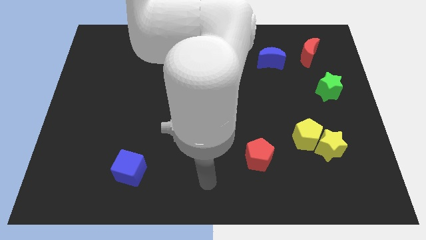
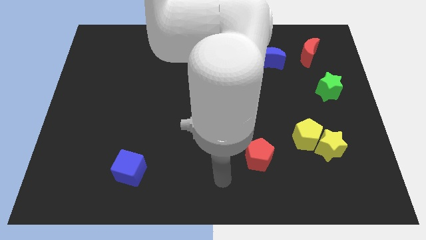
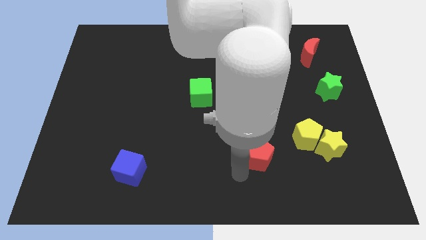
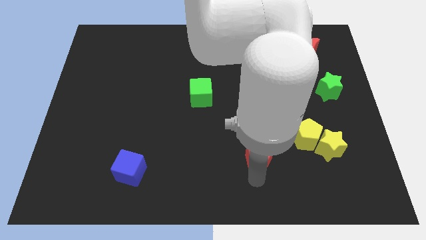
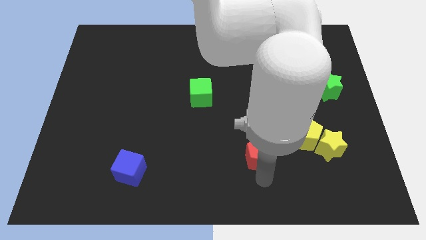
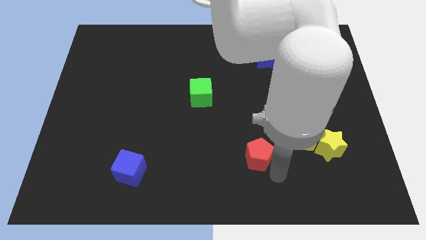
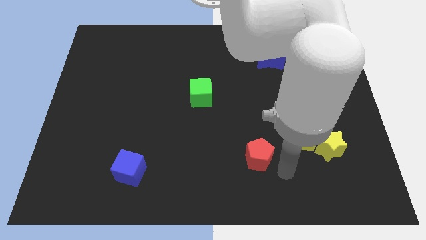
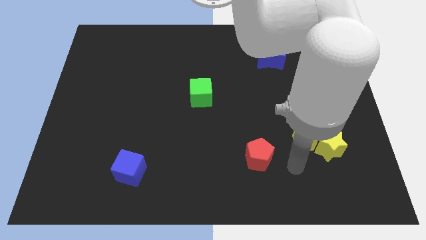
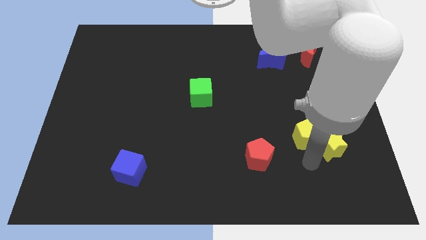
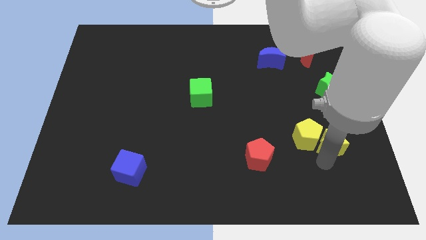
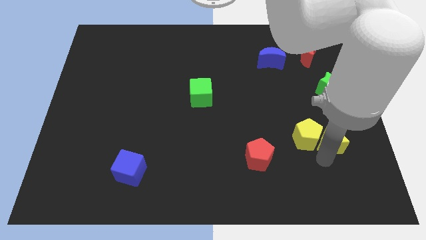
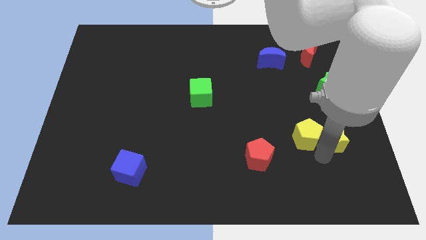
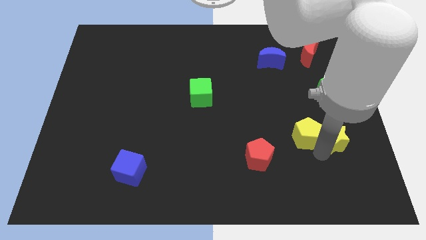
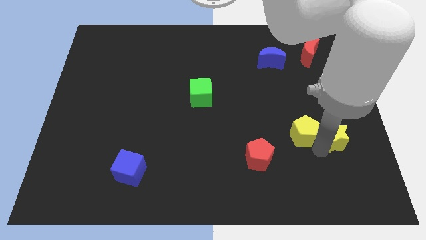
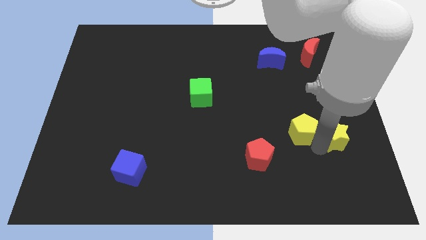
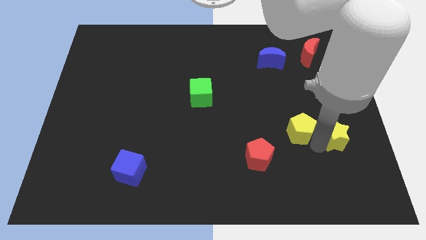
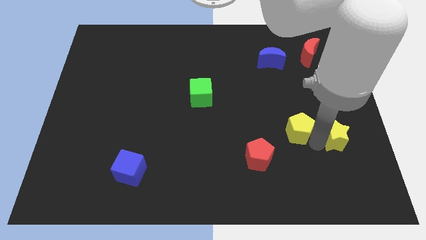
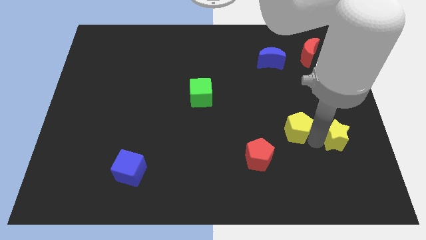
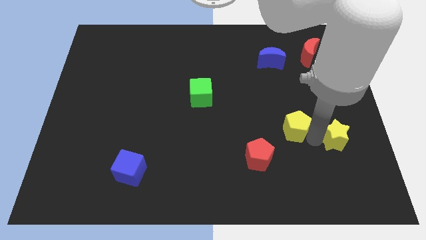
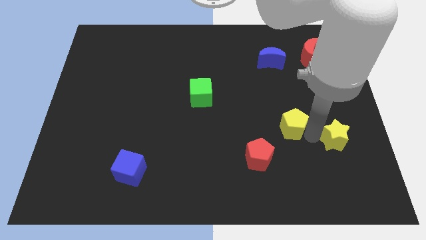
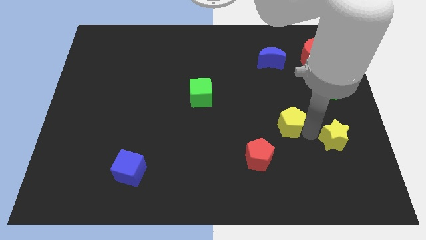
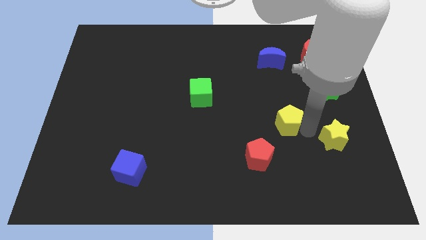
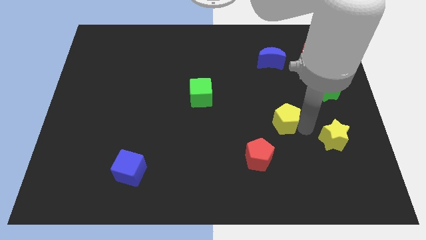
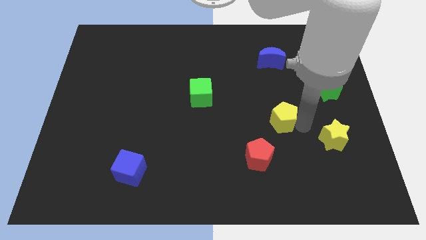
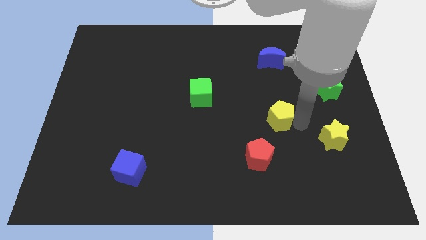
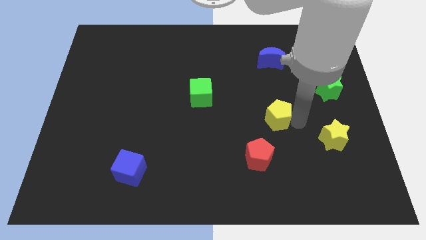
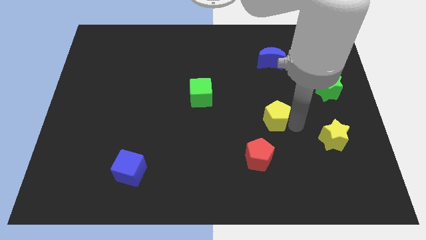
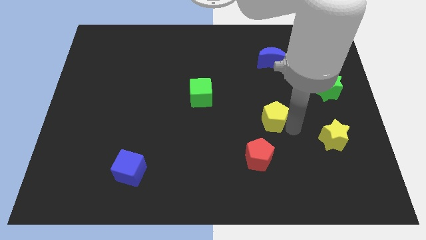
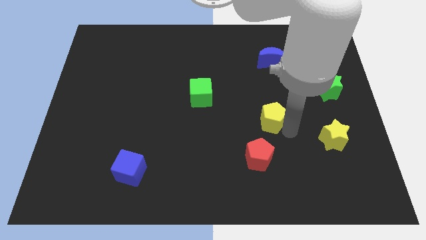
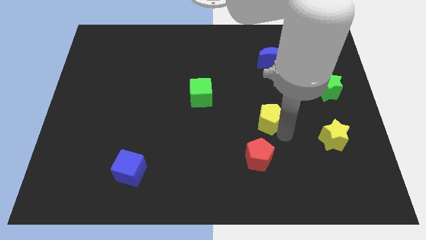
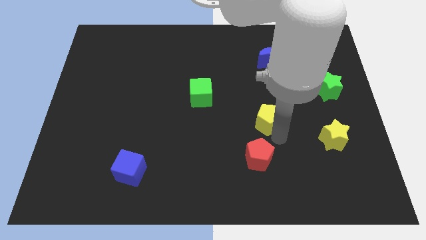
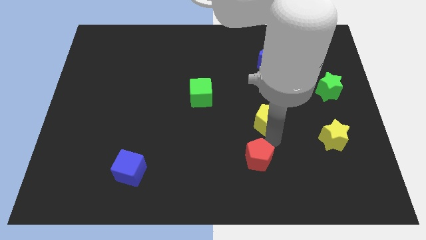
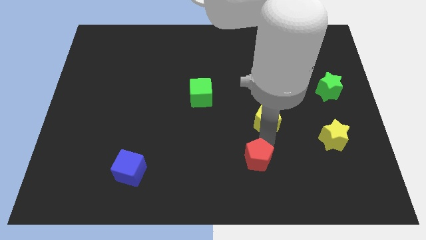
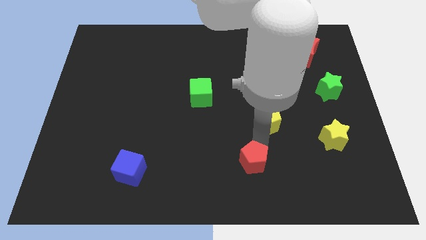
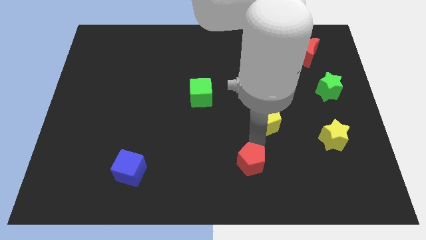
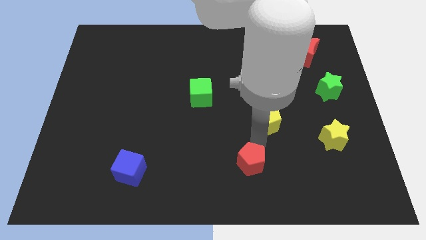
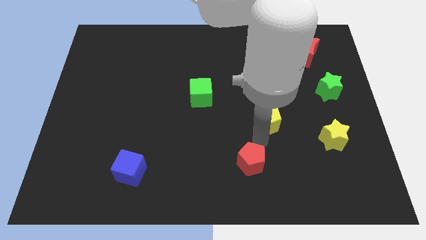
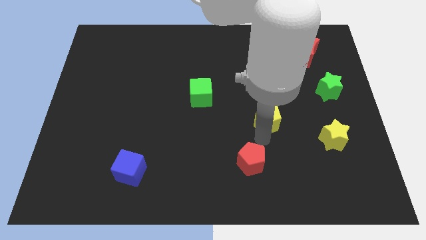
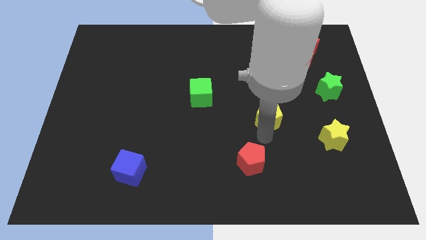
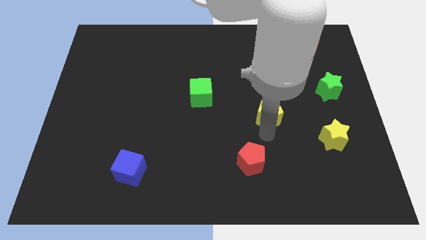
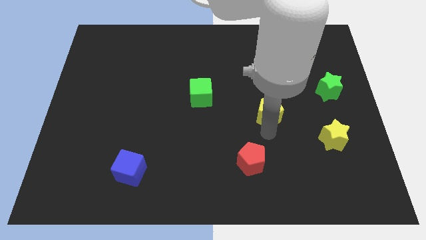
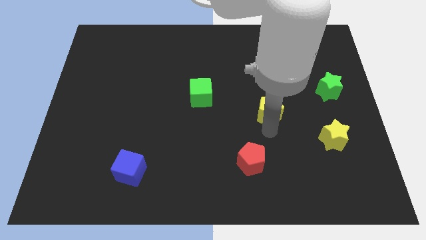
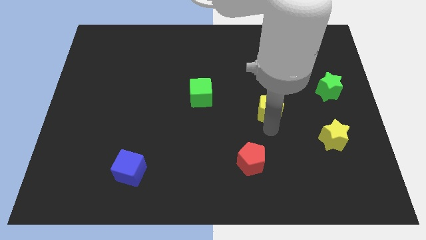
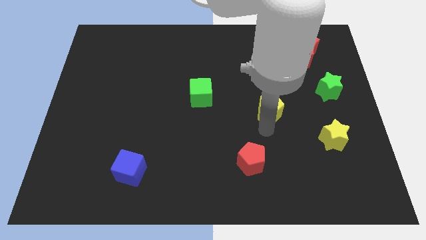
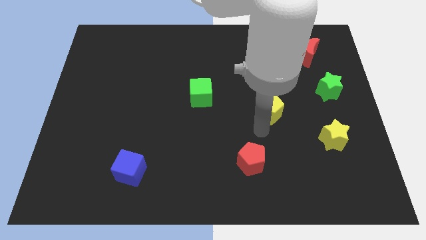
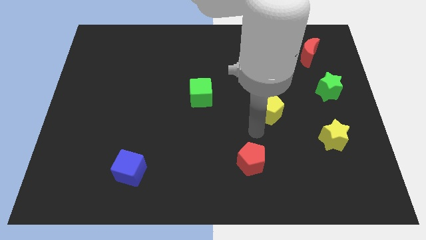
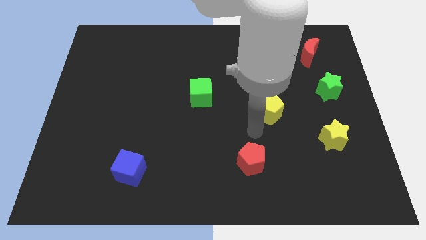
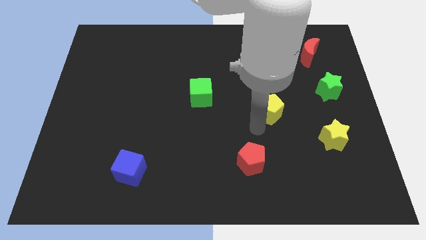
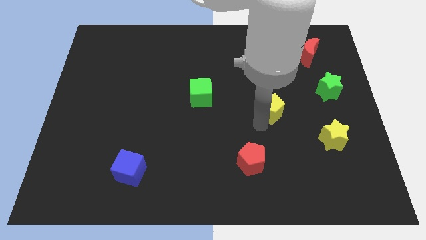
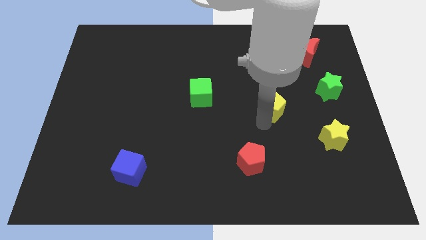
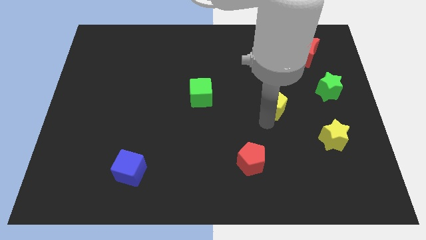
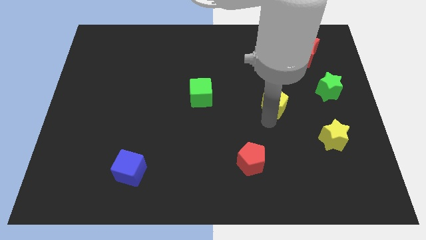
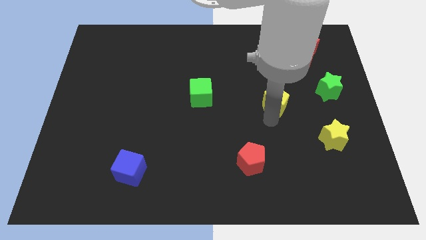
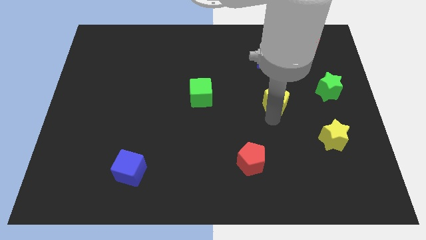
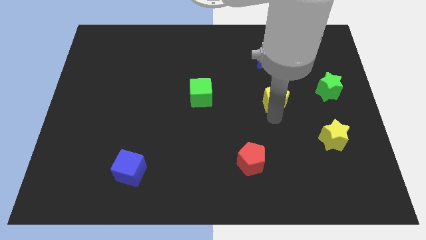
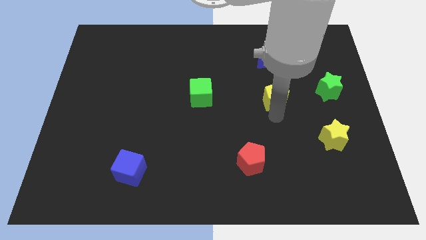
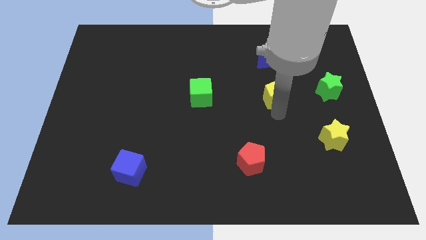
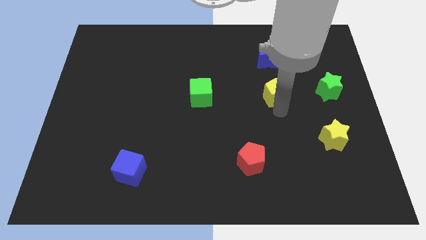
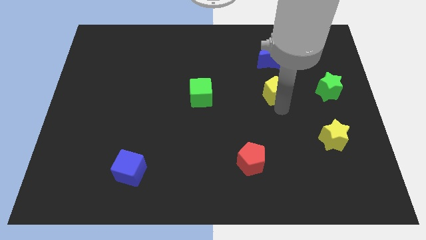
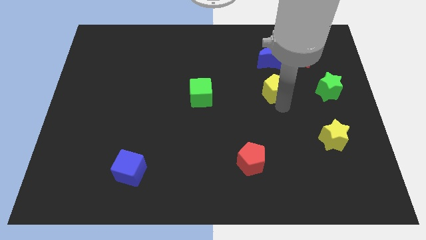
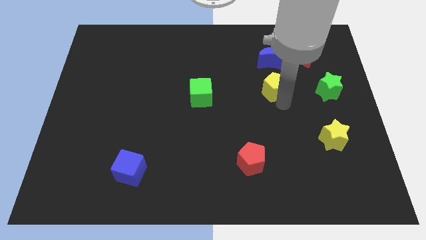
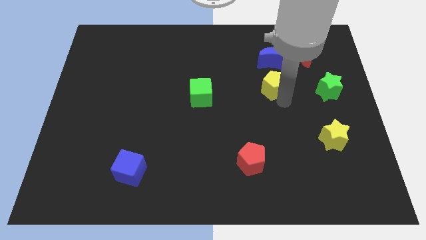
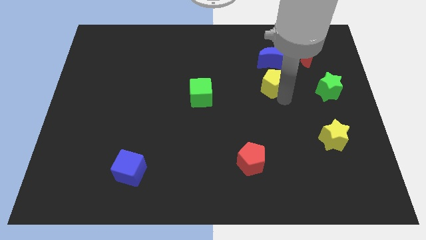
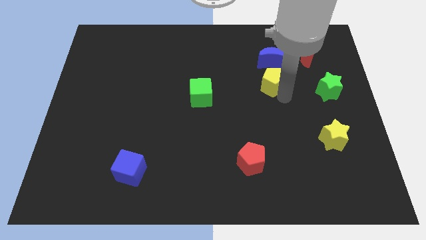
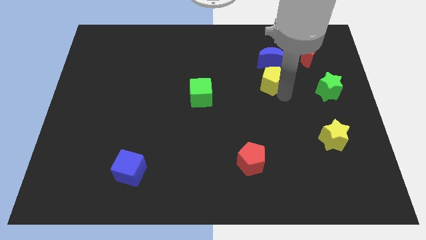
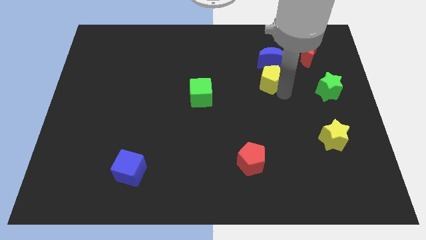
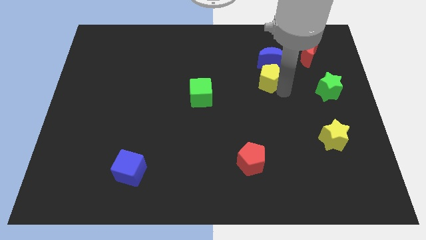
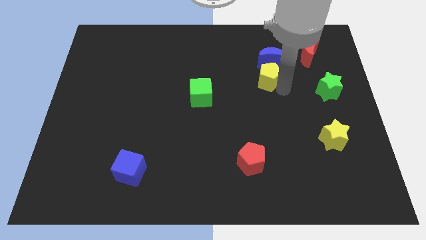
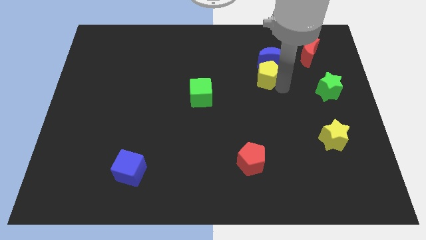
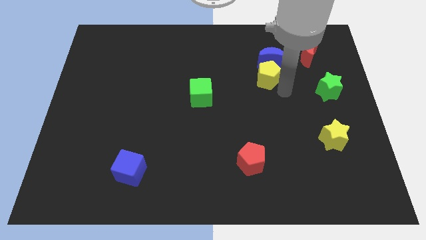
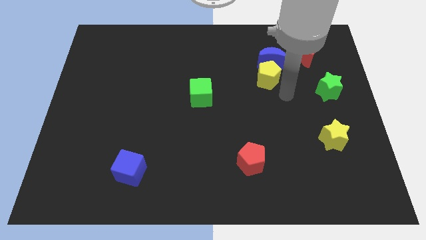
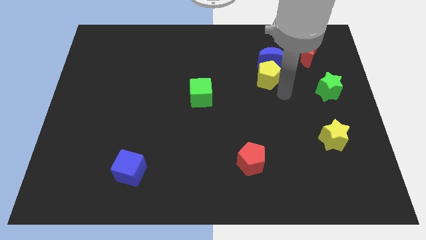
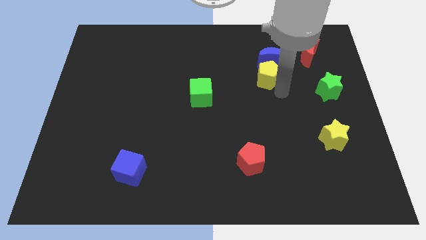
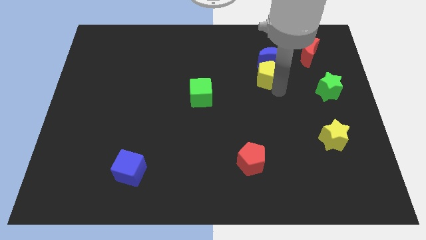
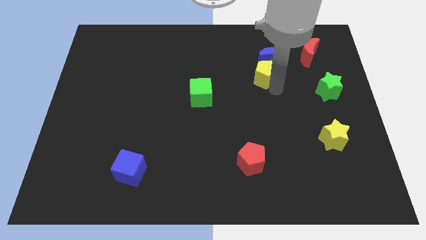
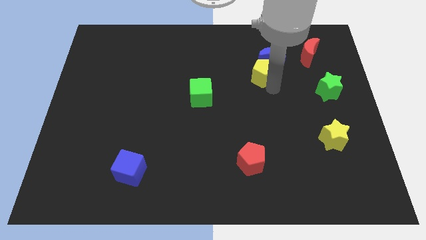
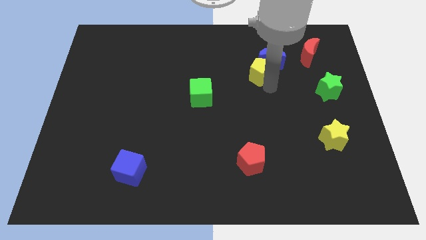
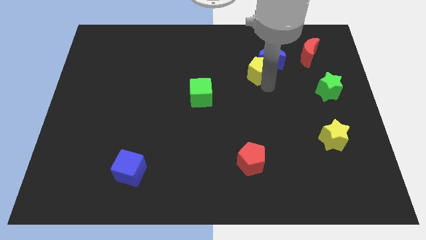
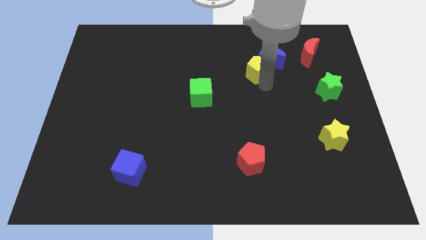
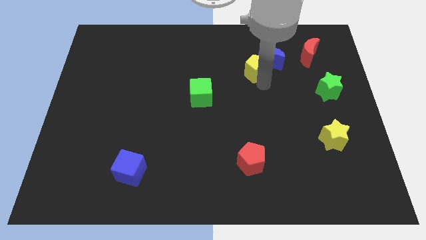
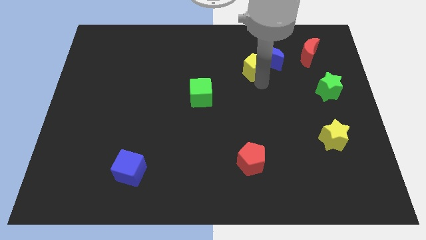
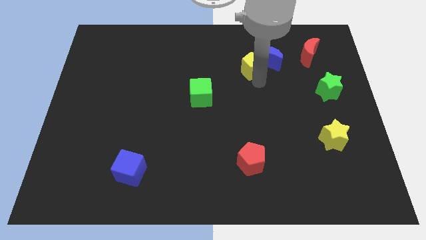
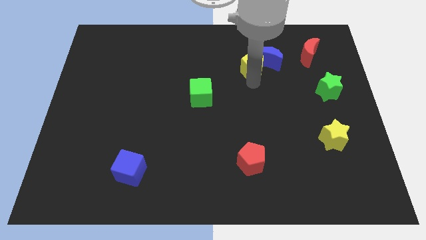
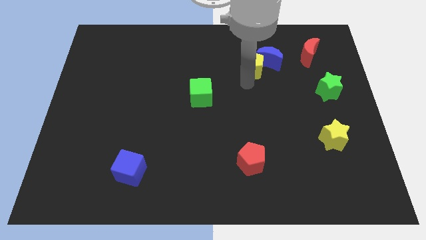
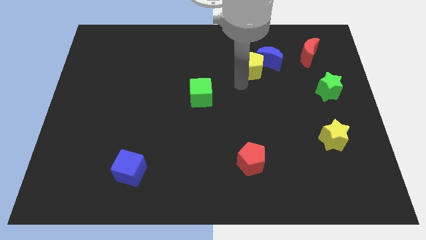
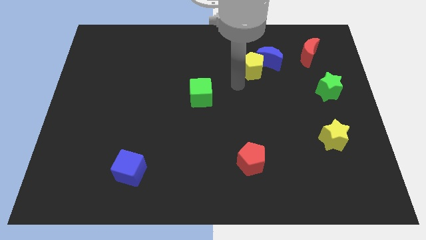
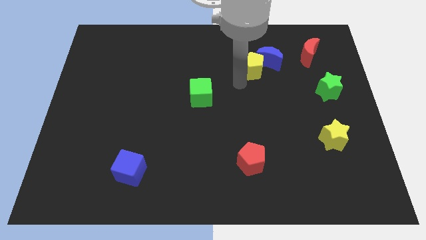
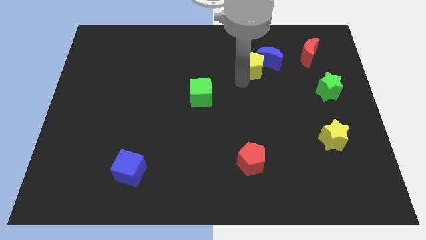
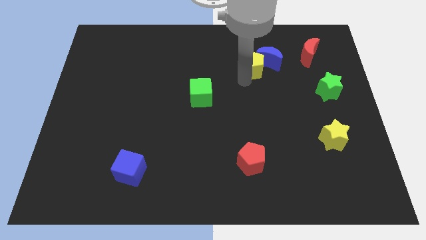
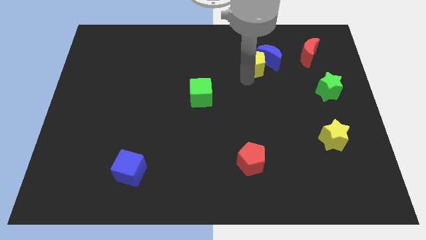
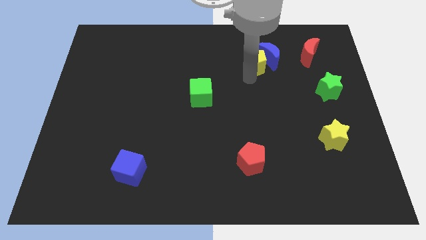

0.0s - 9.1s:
push the yellow pentagon to the left of the red moon
